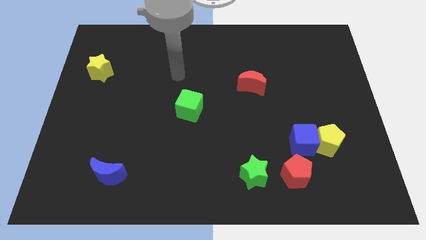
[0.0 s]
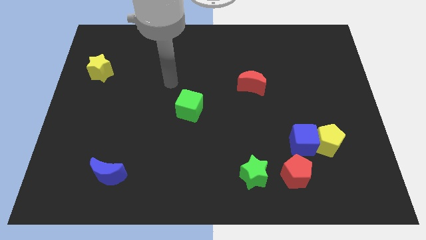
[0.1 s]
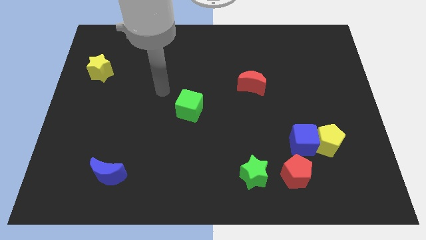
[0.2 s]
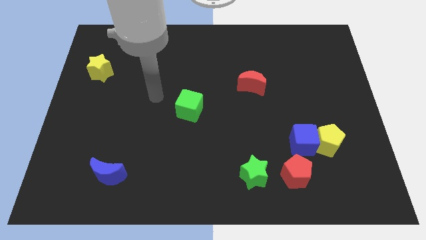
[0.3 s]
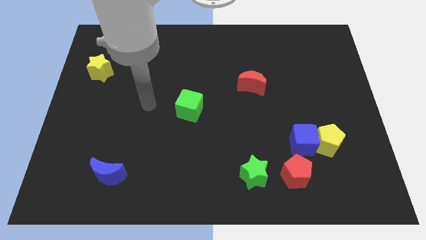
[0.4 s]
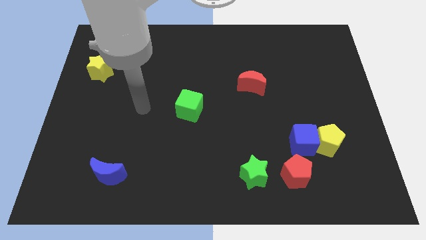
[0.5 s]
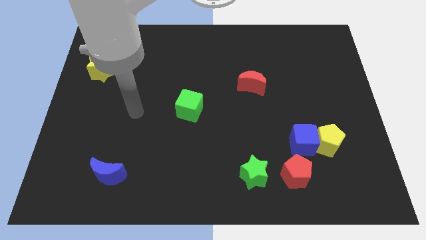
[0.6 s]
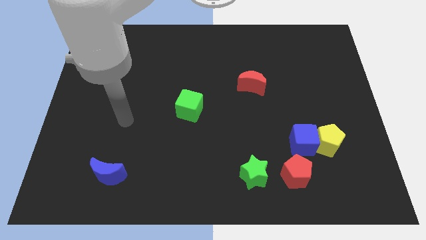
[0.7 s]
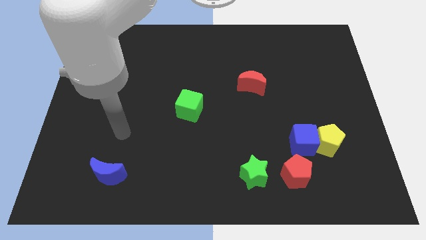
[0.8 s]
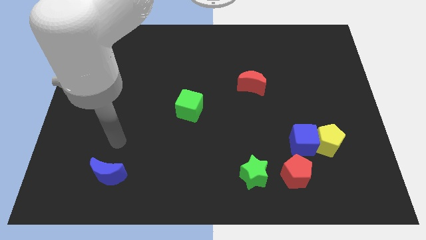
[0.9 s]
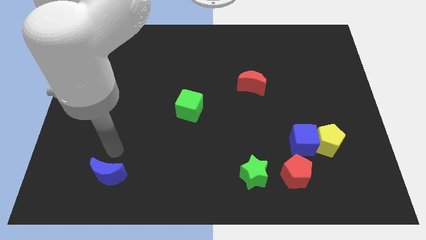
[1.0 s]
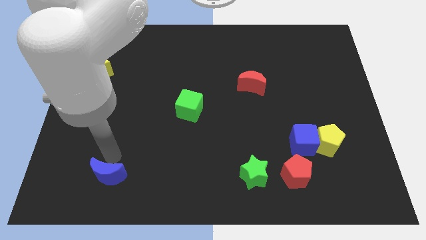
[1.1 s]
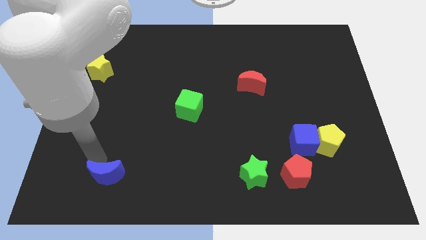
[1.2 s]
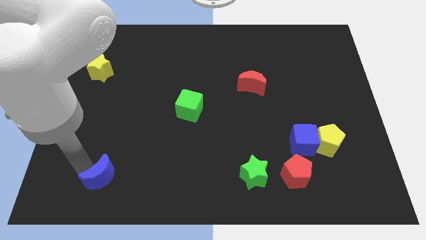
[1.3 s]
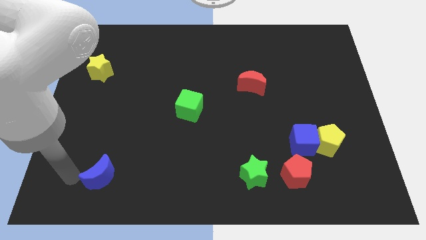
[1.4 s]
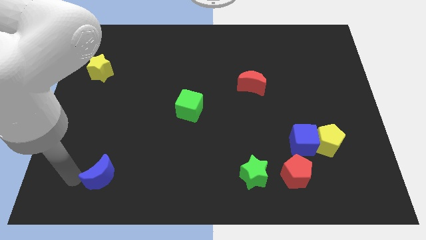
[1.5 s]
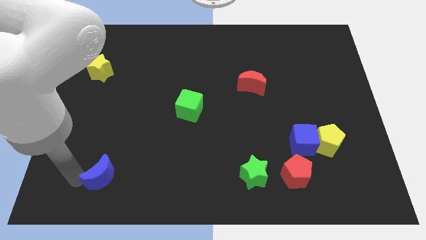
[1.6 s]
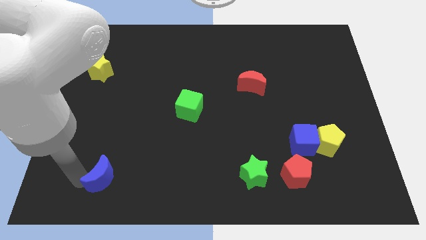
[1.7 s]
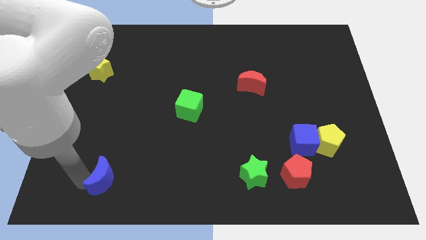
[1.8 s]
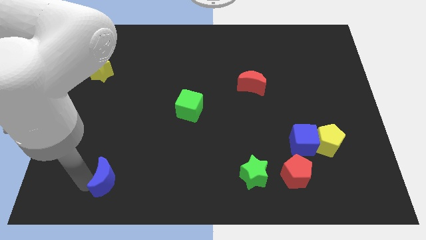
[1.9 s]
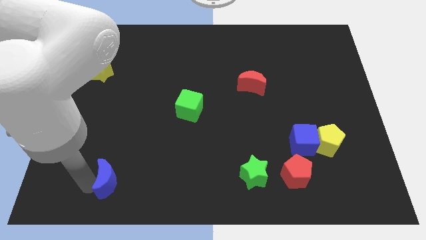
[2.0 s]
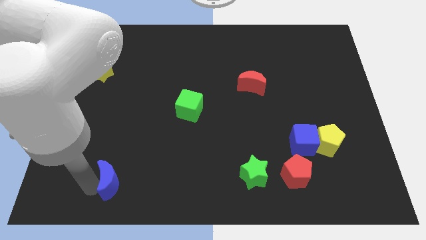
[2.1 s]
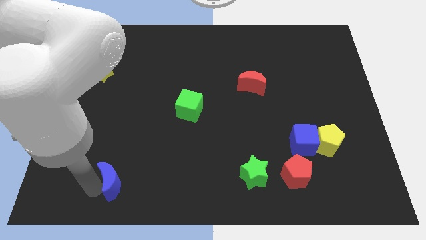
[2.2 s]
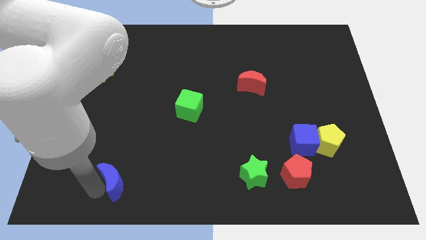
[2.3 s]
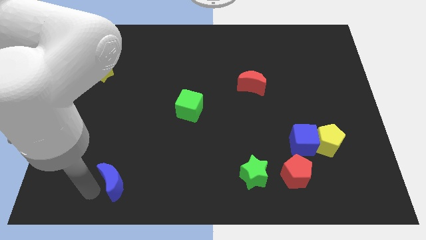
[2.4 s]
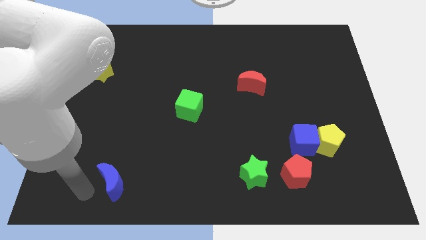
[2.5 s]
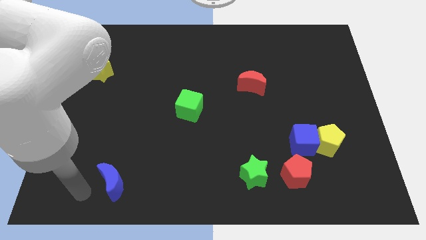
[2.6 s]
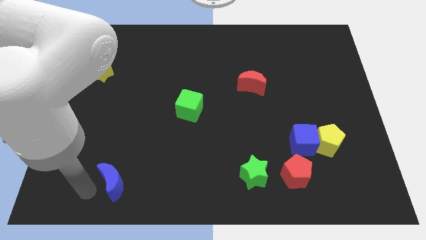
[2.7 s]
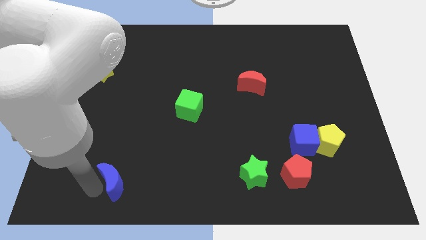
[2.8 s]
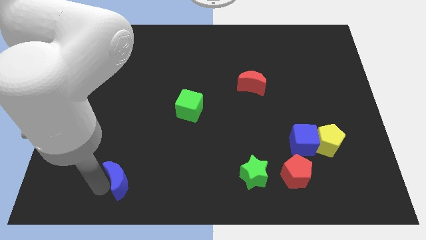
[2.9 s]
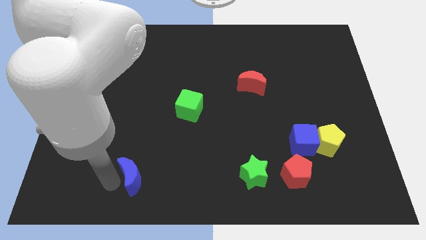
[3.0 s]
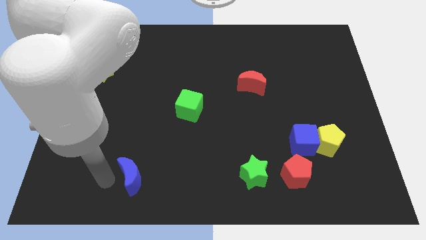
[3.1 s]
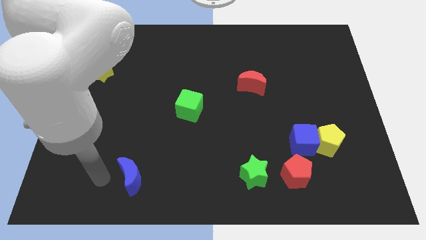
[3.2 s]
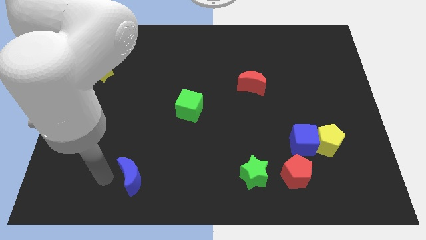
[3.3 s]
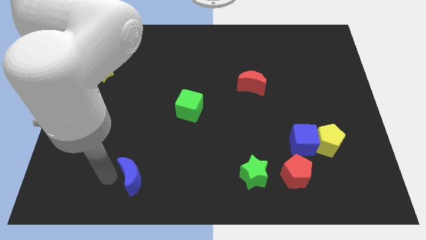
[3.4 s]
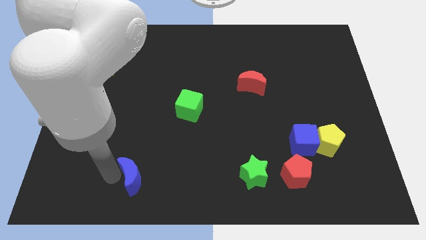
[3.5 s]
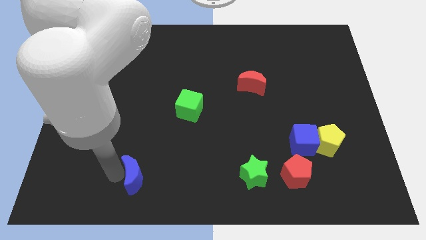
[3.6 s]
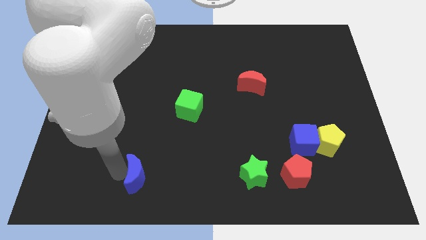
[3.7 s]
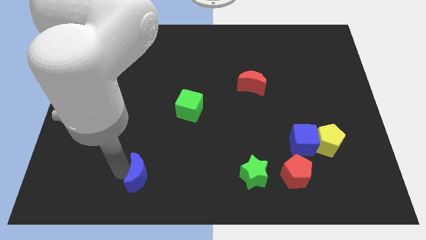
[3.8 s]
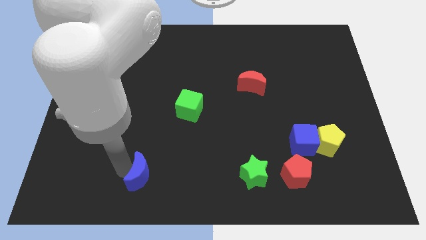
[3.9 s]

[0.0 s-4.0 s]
move the blue moon to the right a little bit

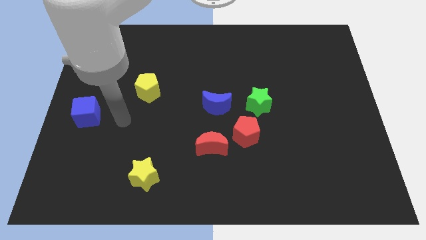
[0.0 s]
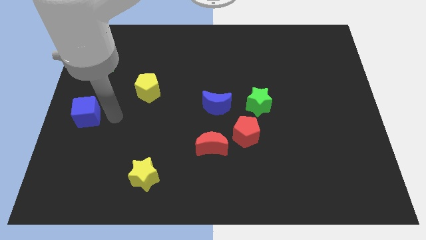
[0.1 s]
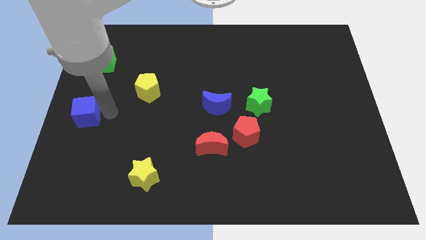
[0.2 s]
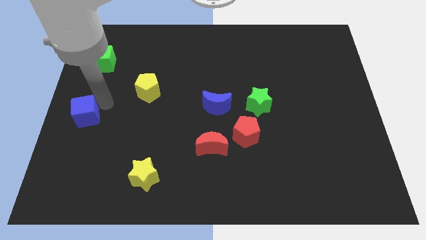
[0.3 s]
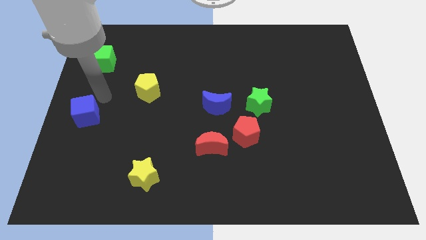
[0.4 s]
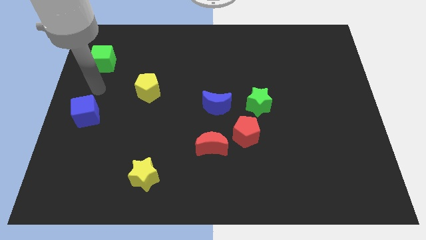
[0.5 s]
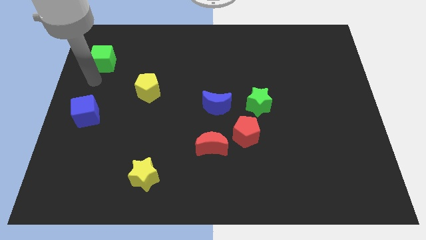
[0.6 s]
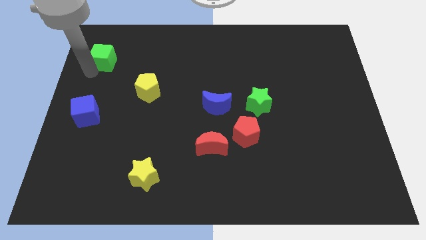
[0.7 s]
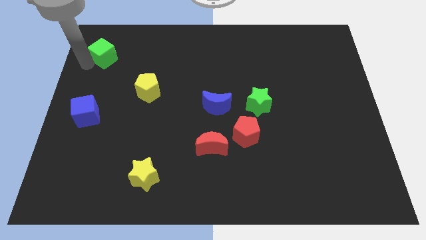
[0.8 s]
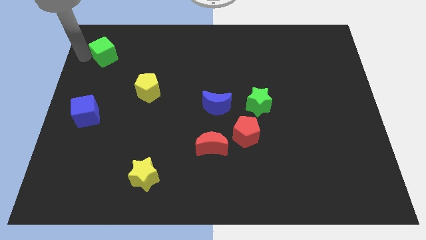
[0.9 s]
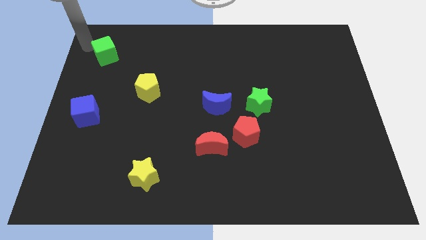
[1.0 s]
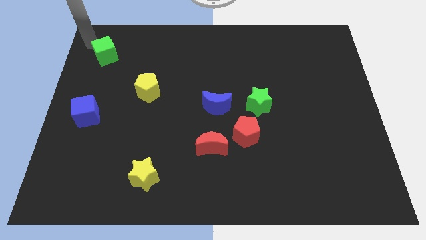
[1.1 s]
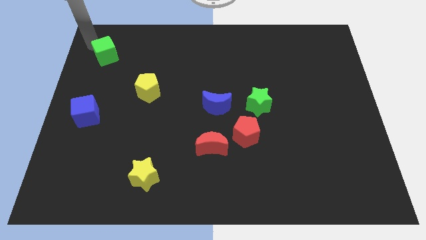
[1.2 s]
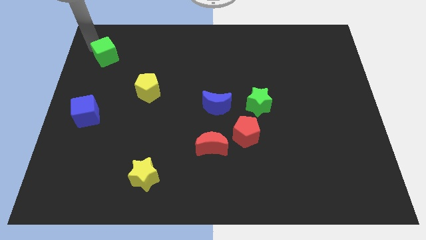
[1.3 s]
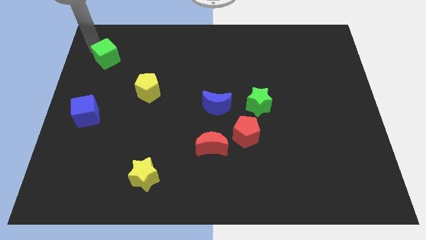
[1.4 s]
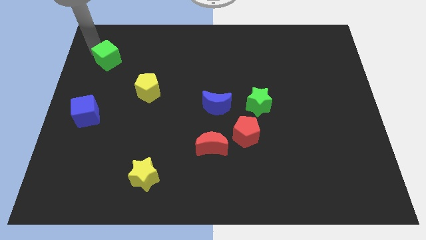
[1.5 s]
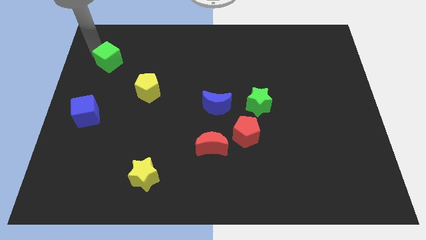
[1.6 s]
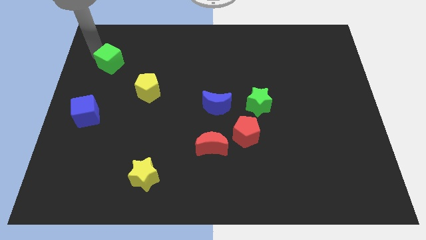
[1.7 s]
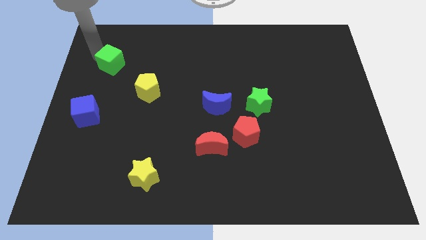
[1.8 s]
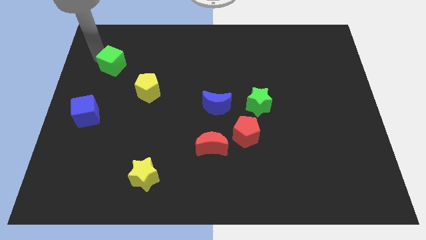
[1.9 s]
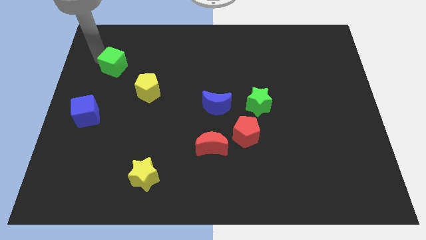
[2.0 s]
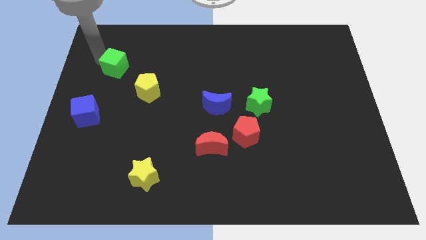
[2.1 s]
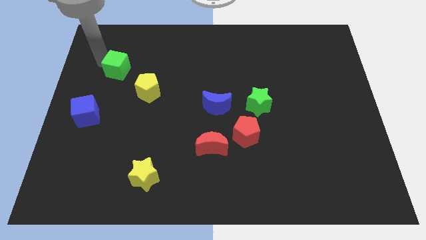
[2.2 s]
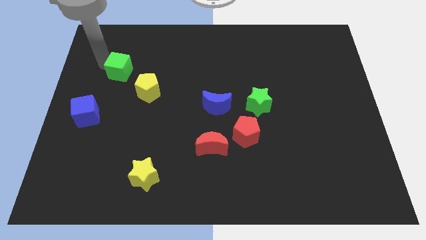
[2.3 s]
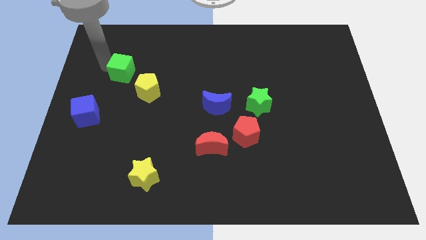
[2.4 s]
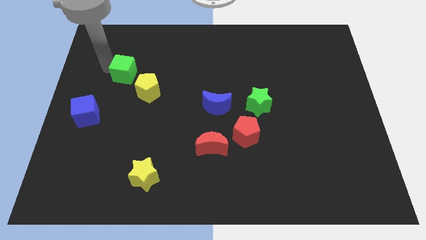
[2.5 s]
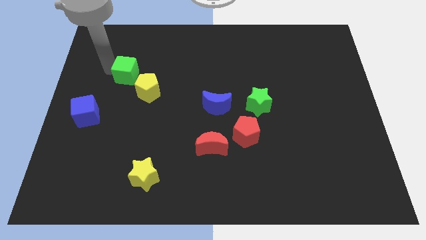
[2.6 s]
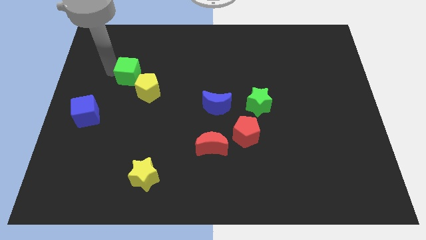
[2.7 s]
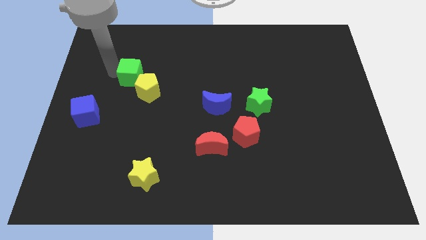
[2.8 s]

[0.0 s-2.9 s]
slightly move the green cube right

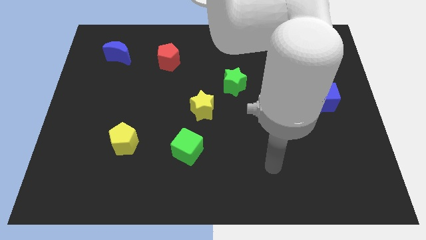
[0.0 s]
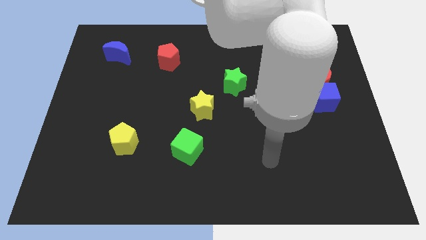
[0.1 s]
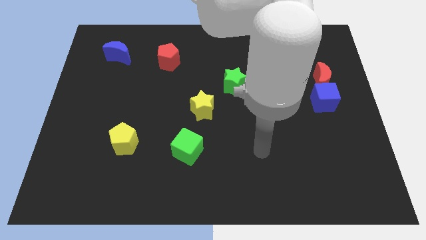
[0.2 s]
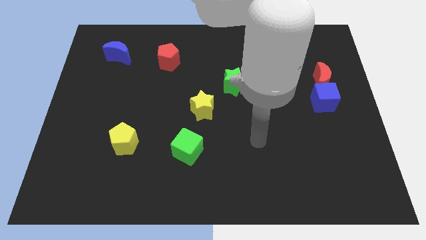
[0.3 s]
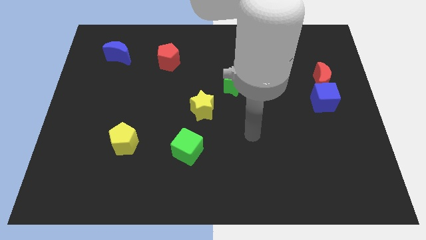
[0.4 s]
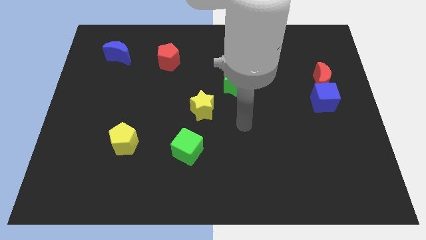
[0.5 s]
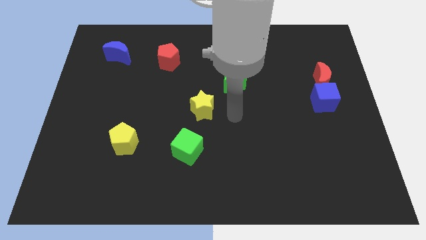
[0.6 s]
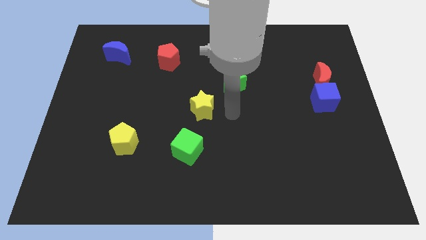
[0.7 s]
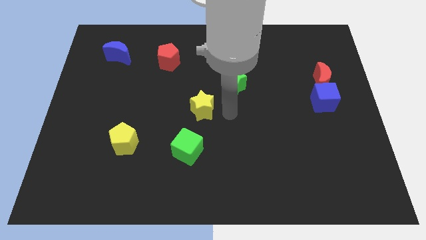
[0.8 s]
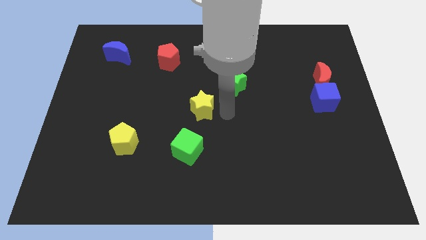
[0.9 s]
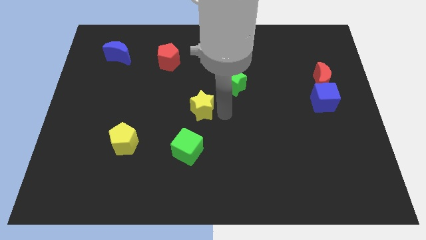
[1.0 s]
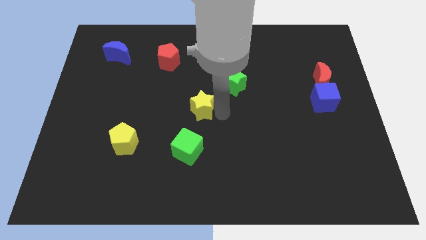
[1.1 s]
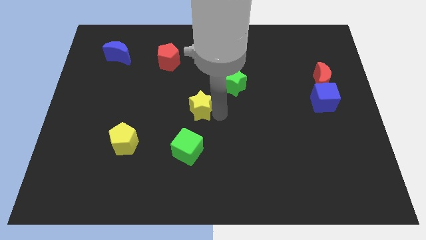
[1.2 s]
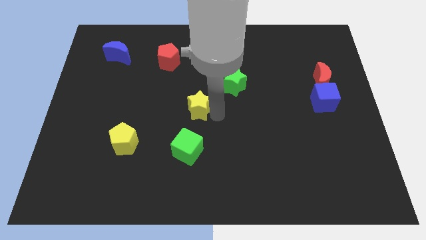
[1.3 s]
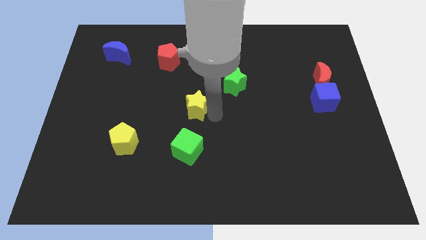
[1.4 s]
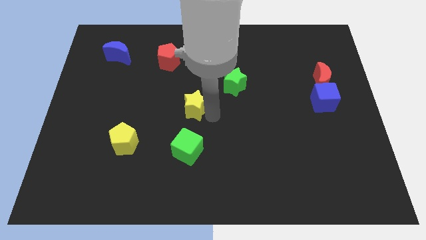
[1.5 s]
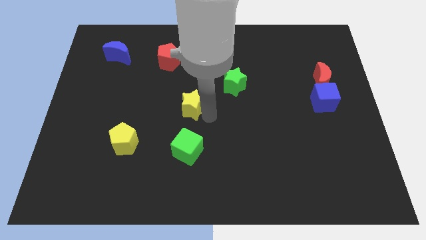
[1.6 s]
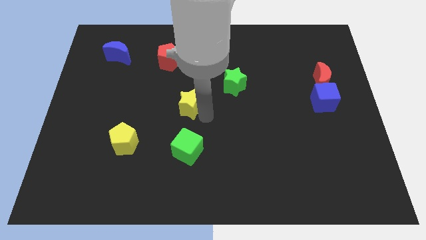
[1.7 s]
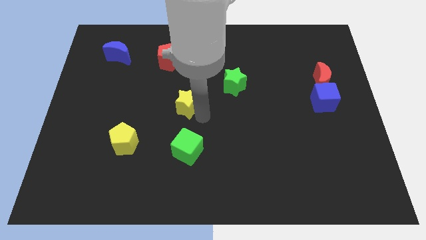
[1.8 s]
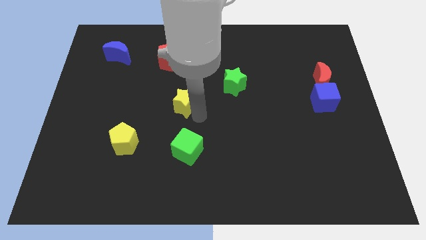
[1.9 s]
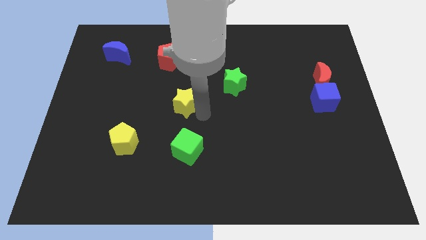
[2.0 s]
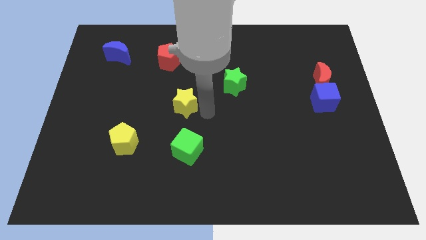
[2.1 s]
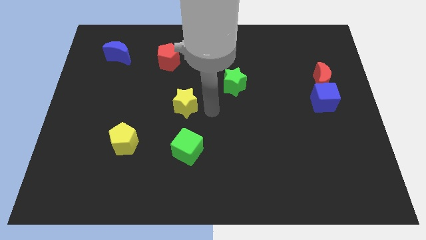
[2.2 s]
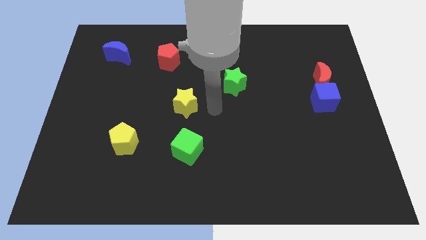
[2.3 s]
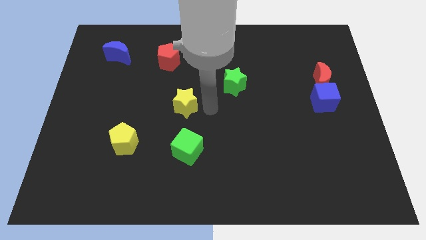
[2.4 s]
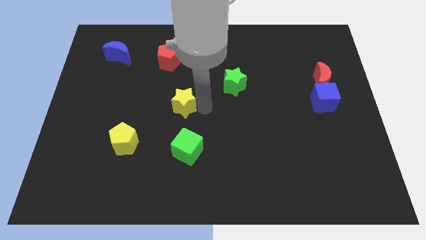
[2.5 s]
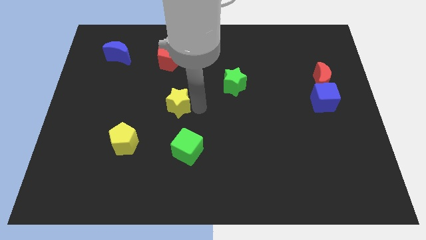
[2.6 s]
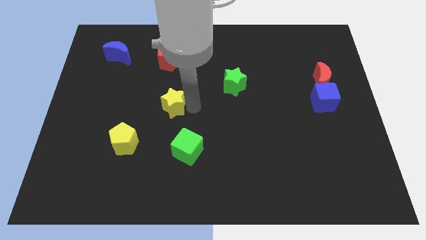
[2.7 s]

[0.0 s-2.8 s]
slide the yellow star left a bit
